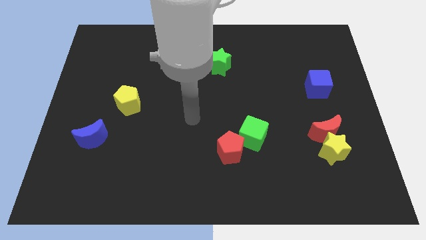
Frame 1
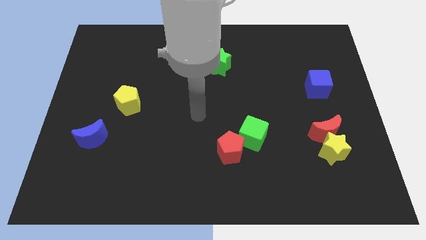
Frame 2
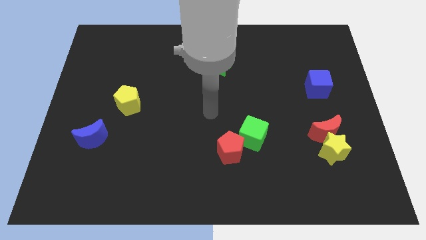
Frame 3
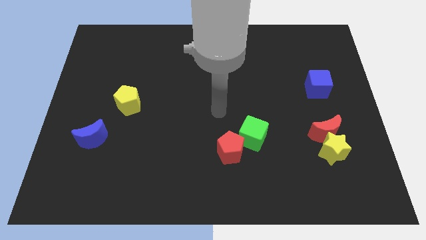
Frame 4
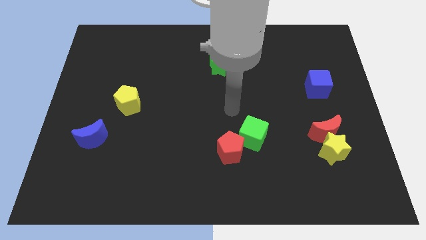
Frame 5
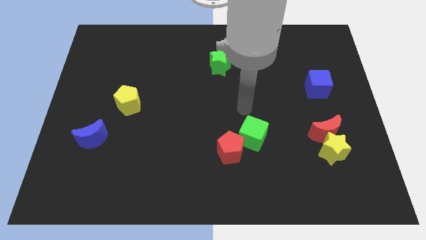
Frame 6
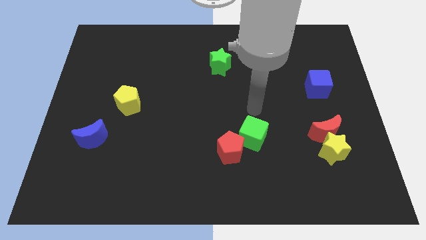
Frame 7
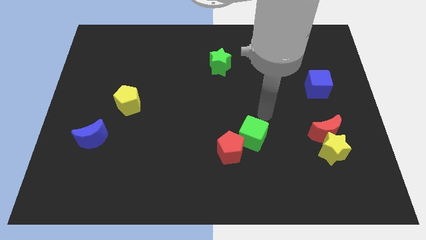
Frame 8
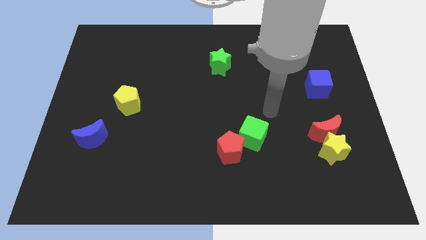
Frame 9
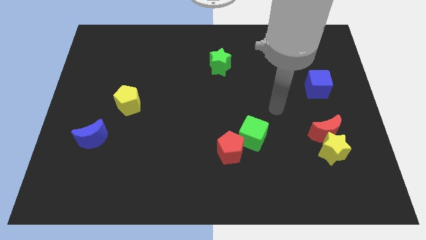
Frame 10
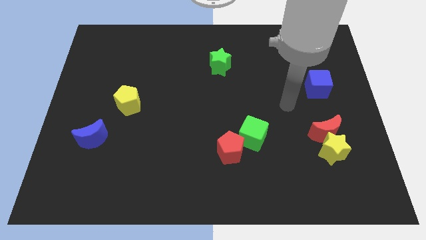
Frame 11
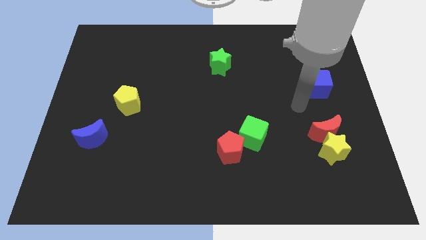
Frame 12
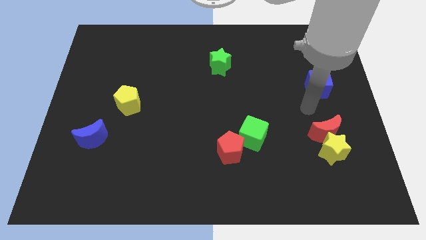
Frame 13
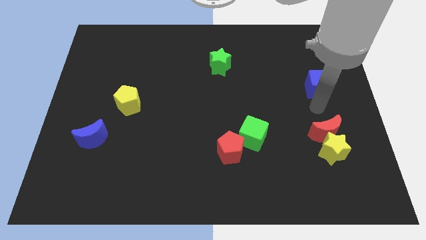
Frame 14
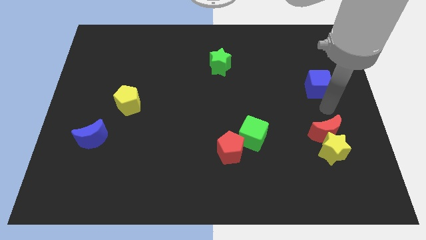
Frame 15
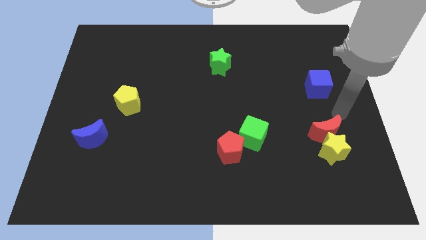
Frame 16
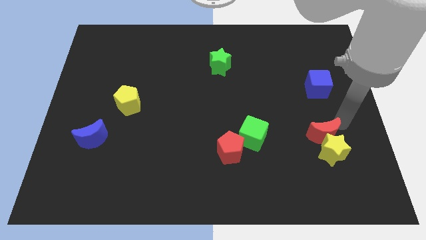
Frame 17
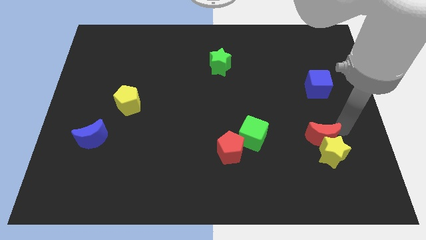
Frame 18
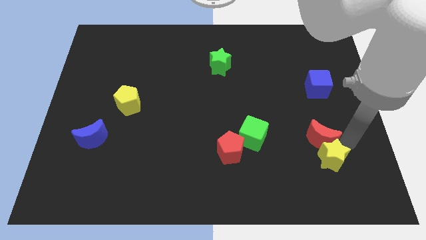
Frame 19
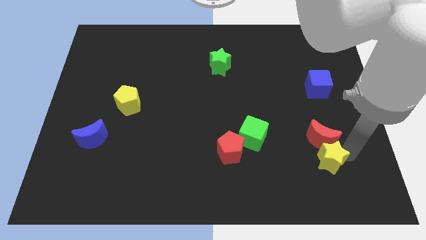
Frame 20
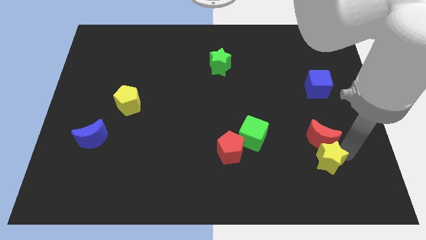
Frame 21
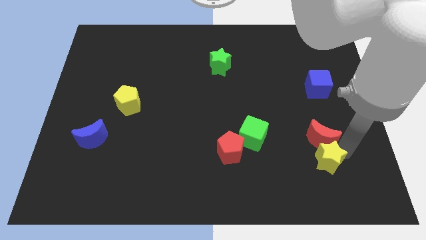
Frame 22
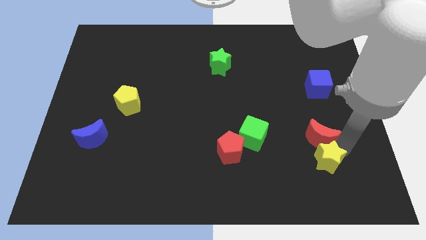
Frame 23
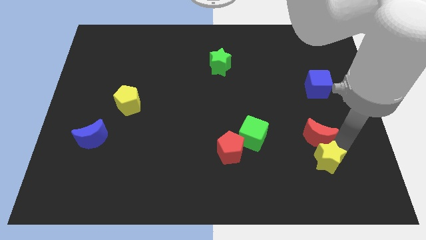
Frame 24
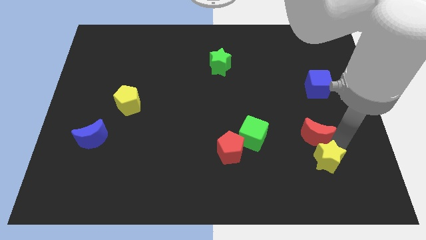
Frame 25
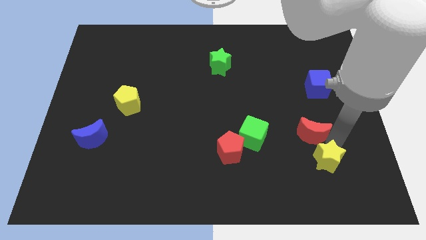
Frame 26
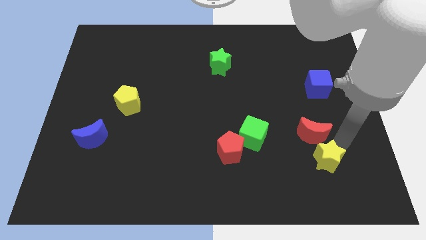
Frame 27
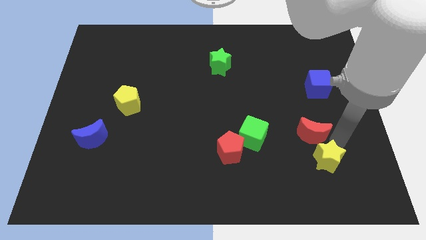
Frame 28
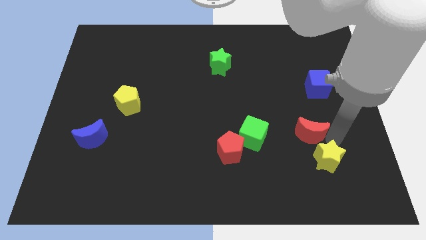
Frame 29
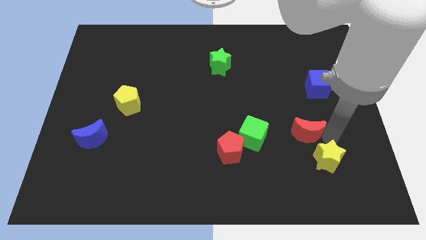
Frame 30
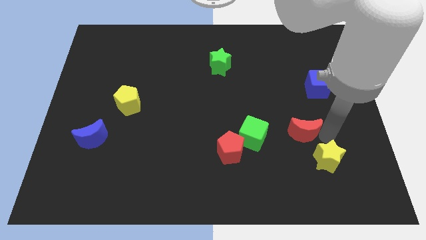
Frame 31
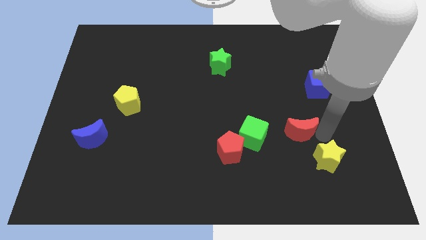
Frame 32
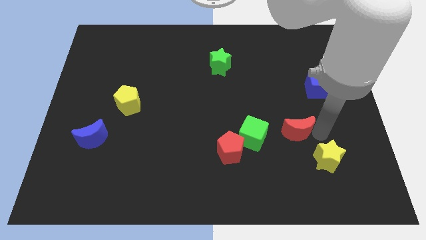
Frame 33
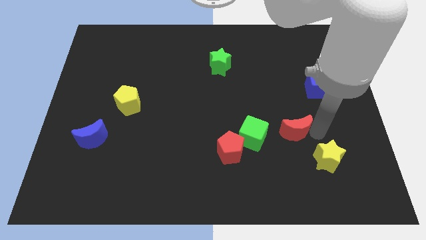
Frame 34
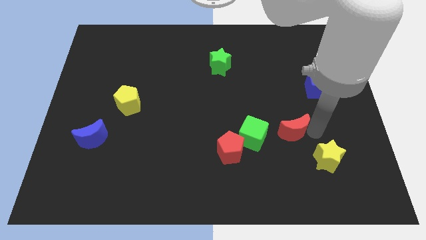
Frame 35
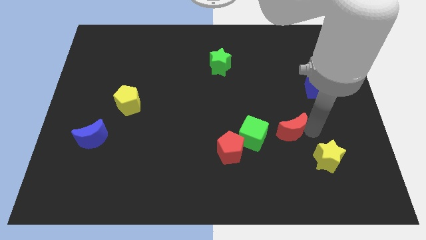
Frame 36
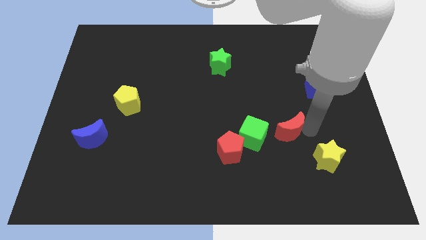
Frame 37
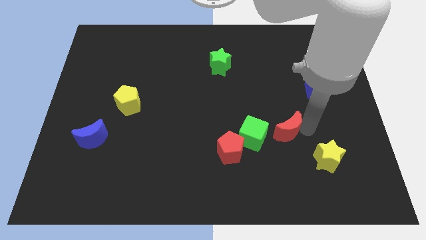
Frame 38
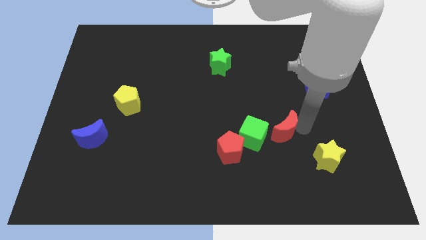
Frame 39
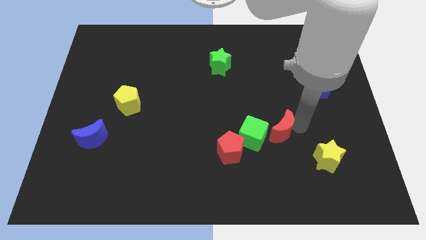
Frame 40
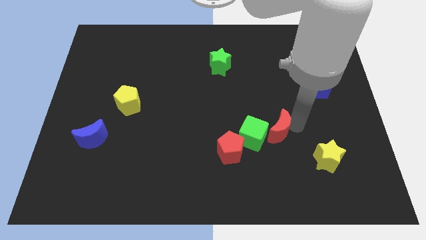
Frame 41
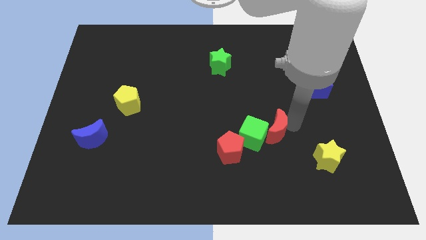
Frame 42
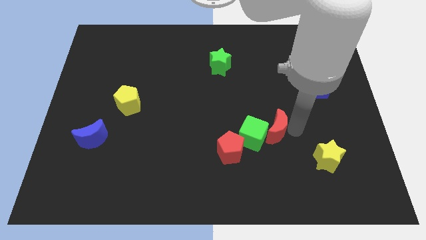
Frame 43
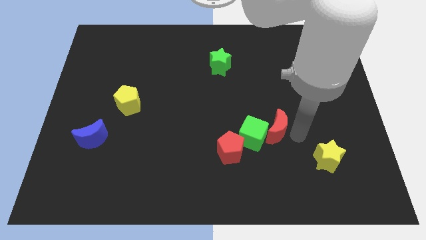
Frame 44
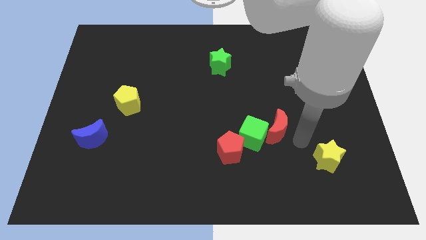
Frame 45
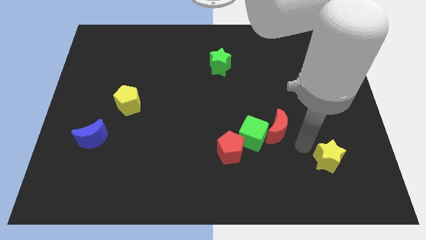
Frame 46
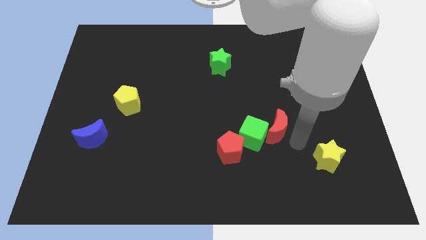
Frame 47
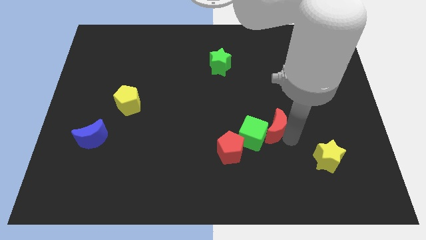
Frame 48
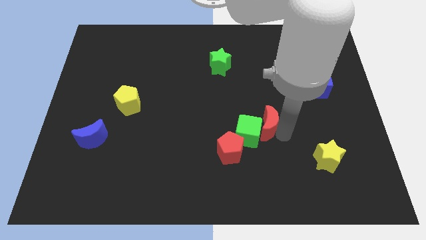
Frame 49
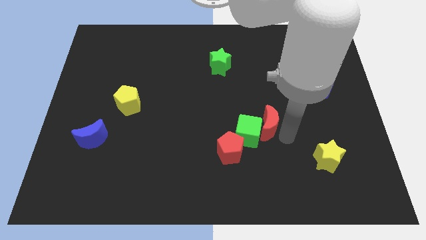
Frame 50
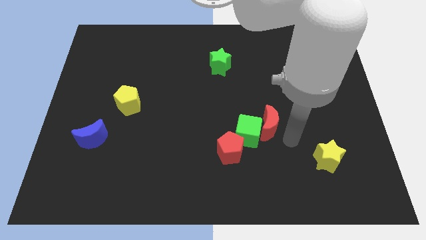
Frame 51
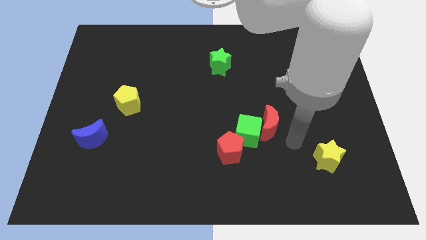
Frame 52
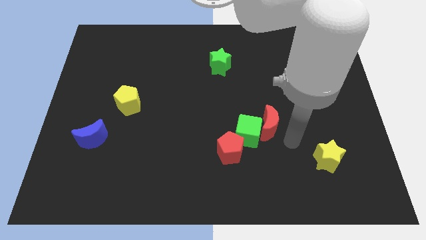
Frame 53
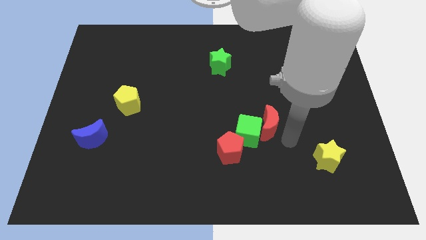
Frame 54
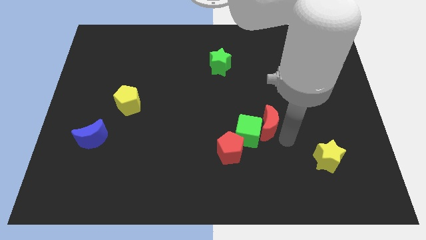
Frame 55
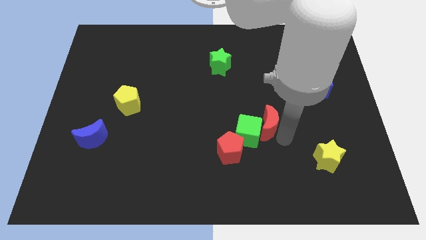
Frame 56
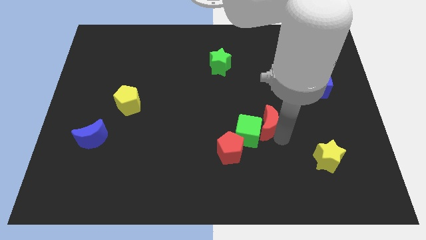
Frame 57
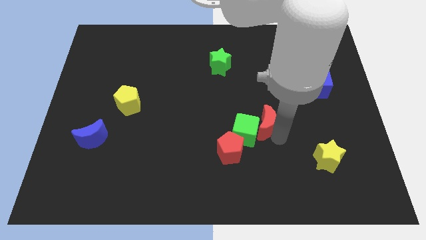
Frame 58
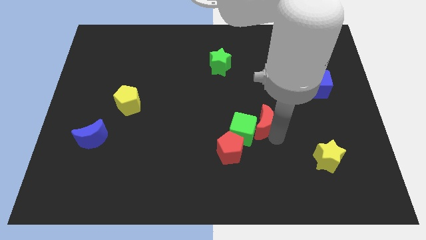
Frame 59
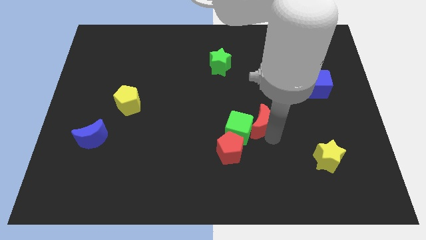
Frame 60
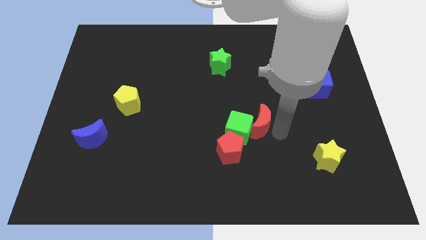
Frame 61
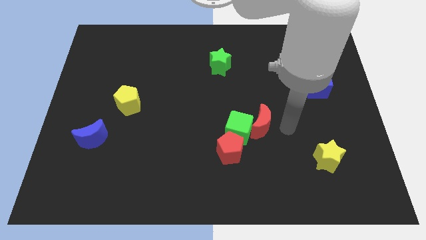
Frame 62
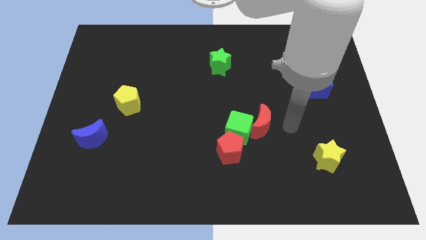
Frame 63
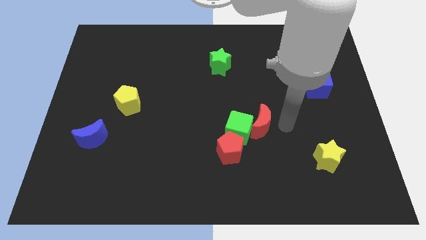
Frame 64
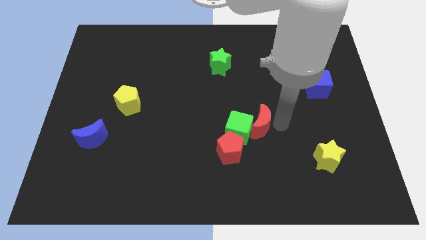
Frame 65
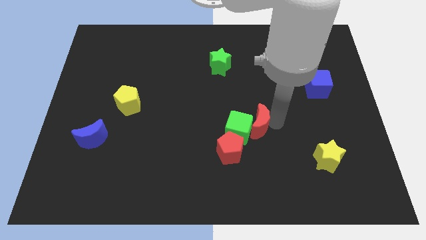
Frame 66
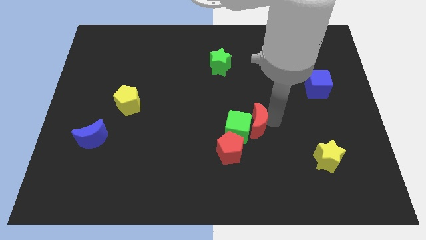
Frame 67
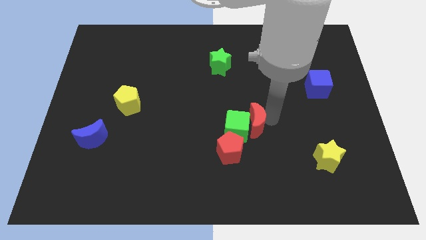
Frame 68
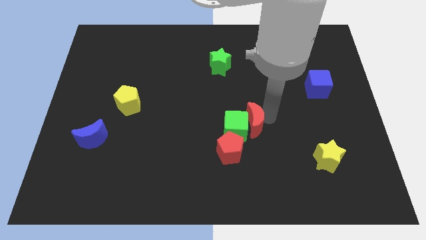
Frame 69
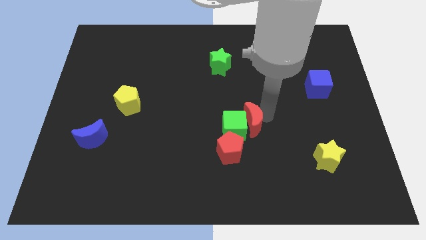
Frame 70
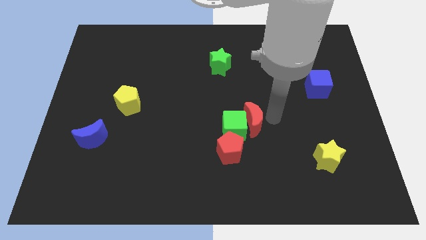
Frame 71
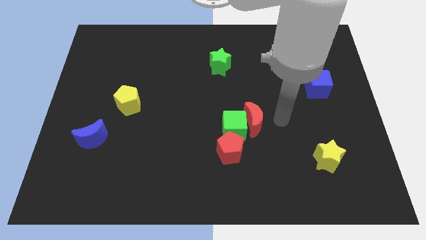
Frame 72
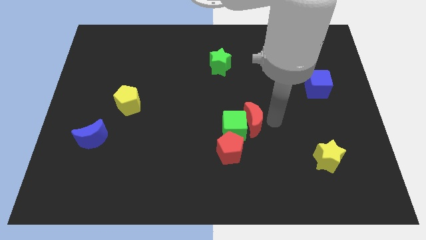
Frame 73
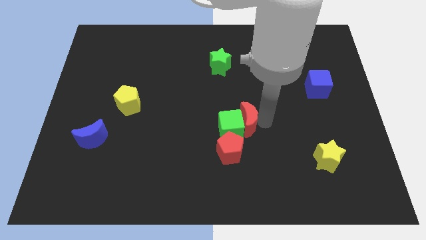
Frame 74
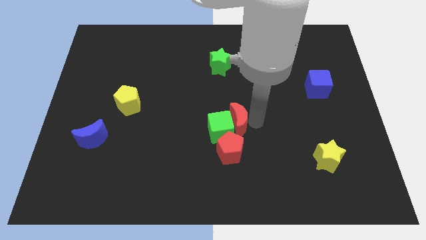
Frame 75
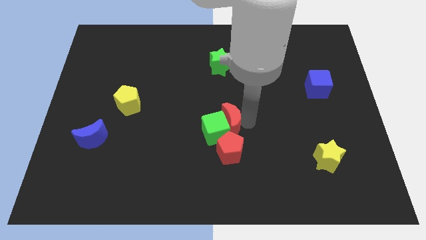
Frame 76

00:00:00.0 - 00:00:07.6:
push the red moon to the left

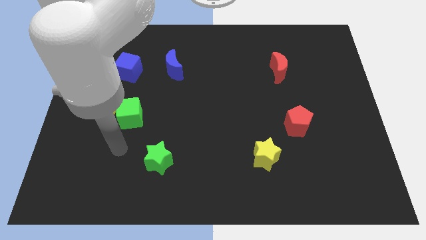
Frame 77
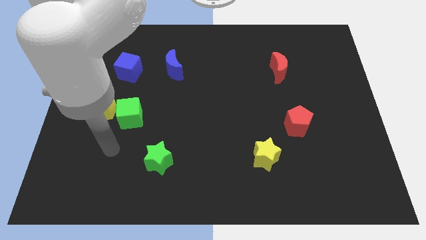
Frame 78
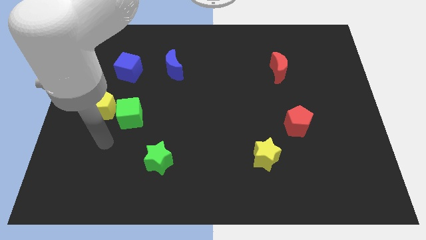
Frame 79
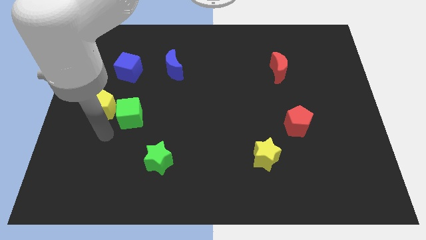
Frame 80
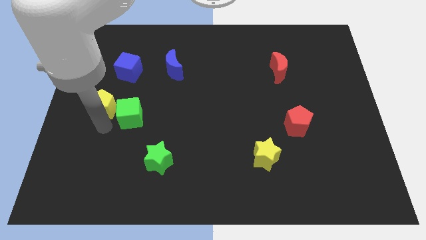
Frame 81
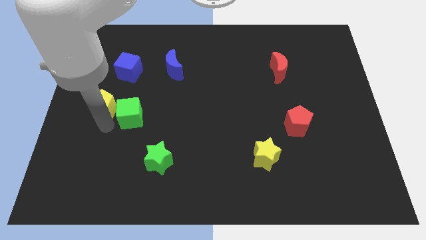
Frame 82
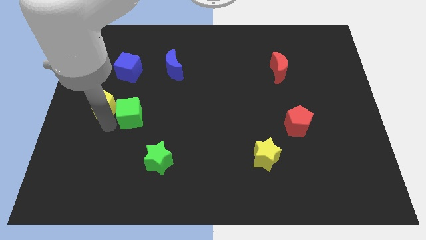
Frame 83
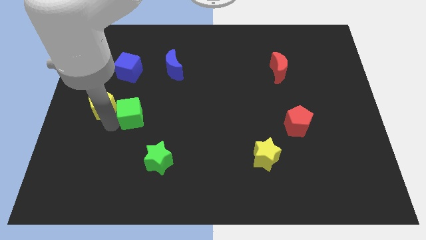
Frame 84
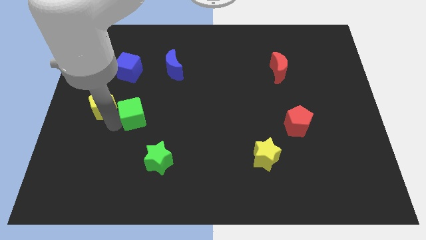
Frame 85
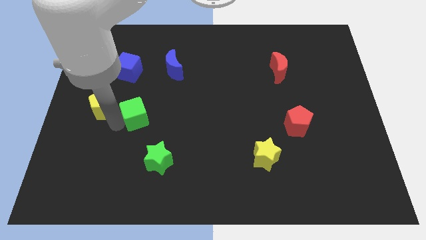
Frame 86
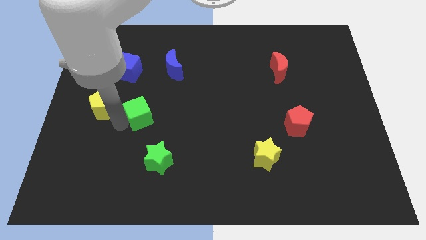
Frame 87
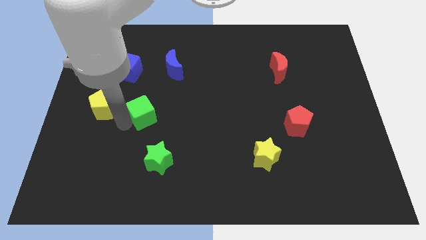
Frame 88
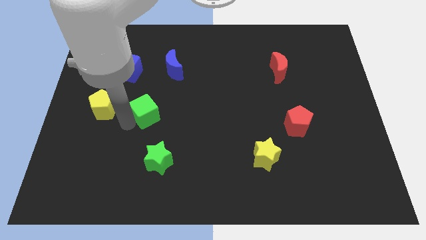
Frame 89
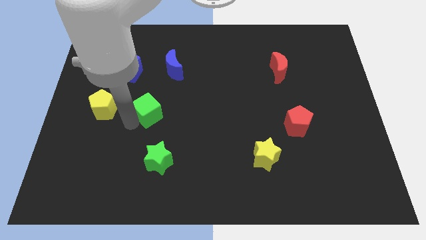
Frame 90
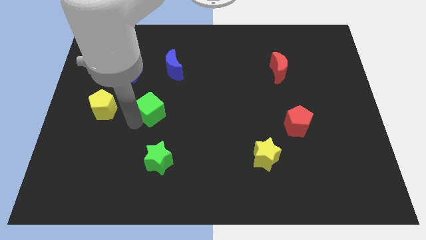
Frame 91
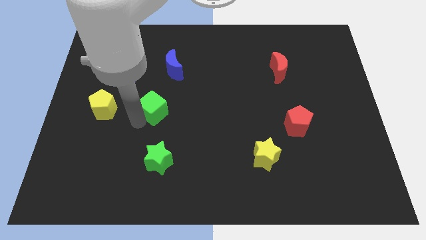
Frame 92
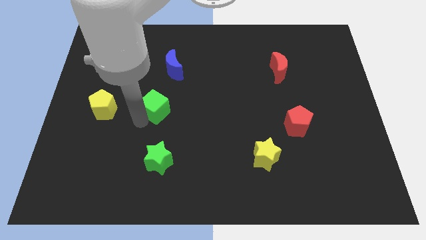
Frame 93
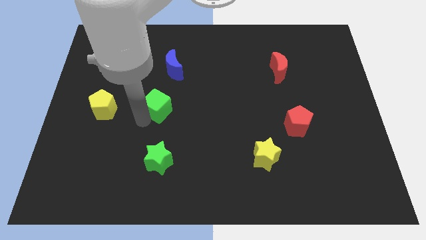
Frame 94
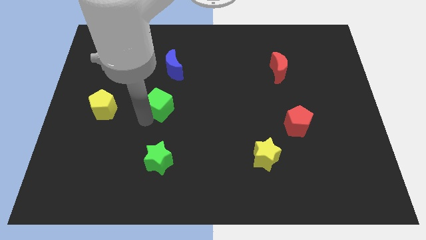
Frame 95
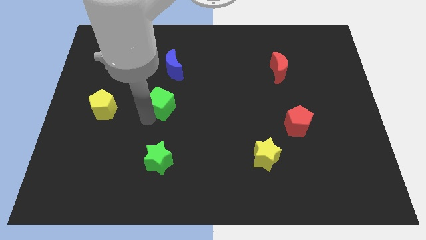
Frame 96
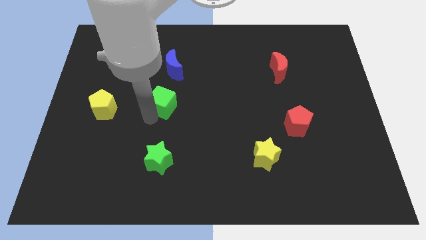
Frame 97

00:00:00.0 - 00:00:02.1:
push the green cube up and then to the right a bit
